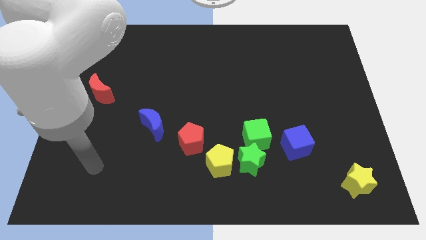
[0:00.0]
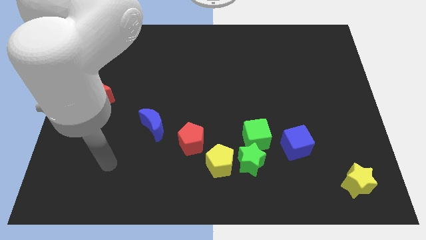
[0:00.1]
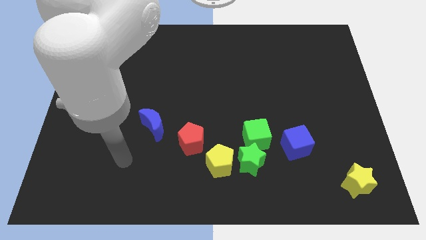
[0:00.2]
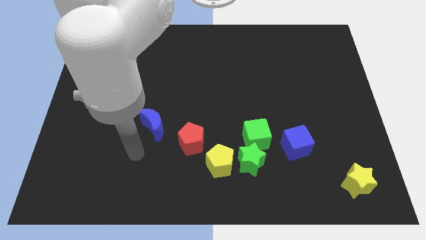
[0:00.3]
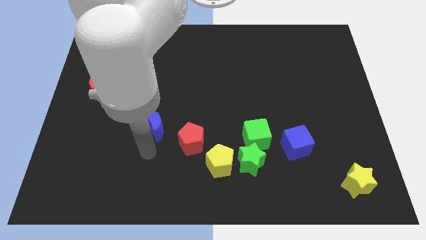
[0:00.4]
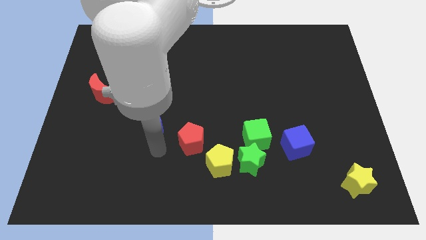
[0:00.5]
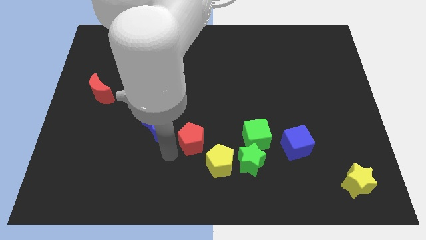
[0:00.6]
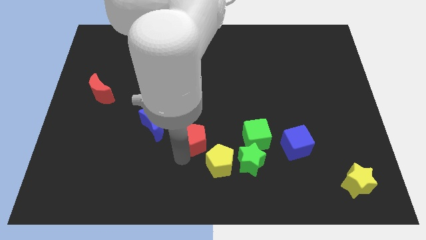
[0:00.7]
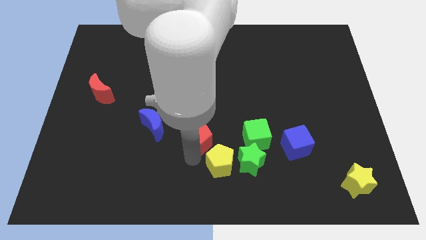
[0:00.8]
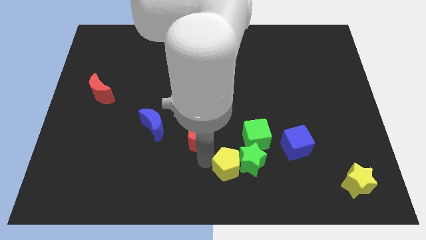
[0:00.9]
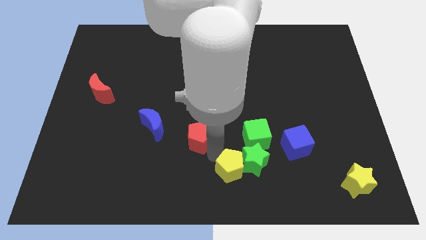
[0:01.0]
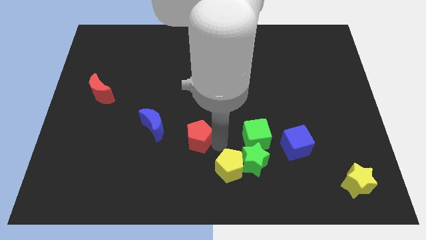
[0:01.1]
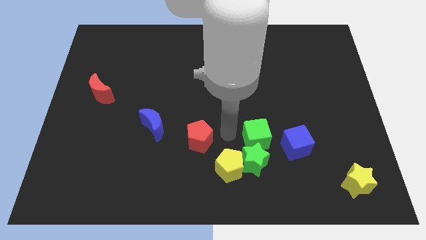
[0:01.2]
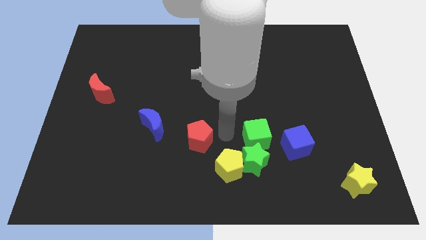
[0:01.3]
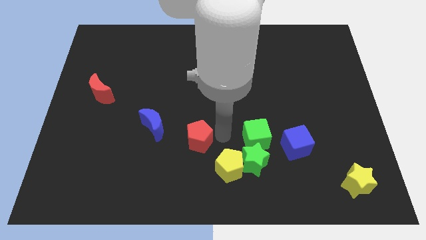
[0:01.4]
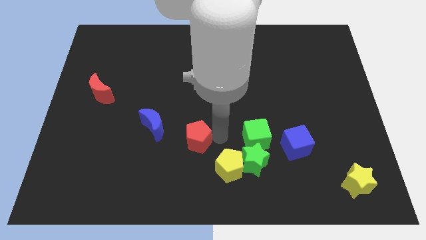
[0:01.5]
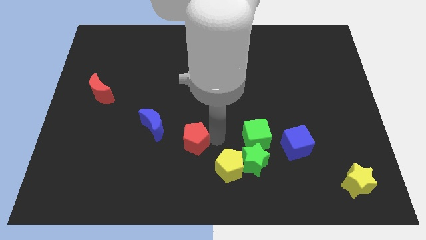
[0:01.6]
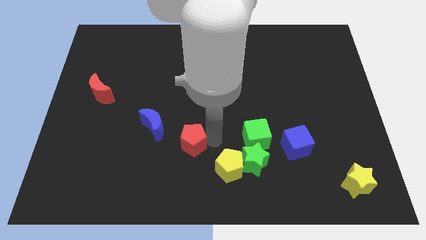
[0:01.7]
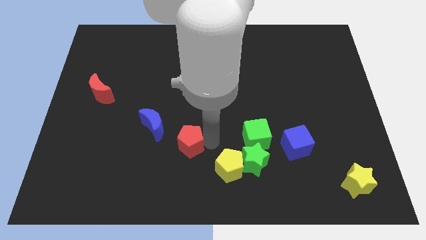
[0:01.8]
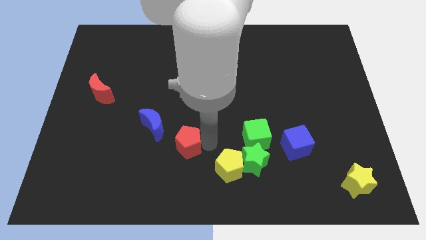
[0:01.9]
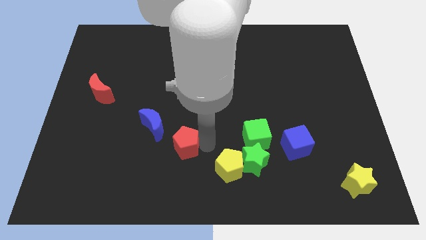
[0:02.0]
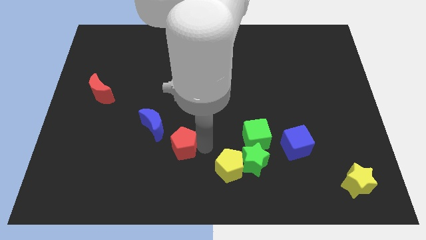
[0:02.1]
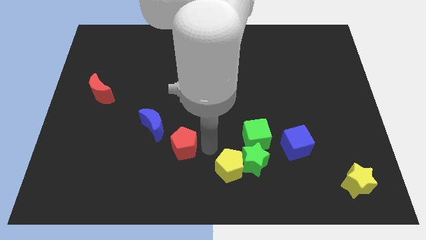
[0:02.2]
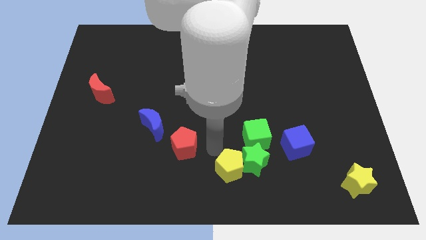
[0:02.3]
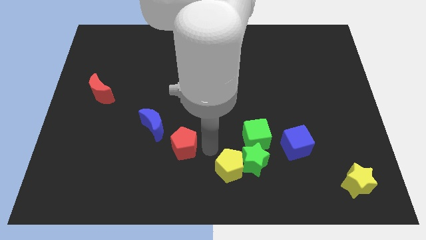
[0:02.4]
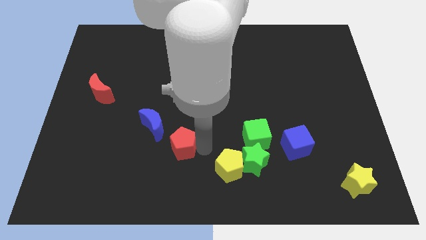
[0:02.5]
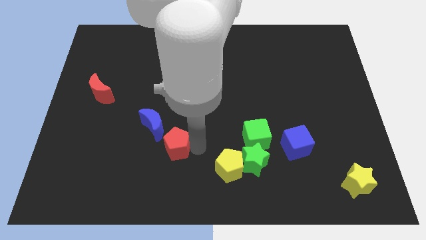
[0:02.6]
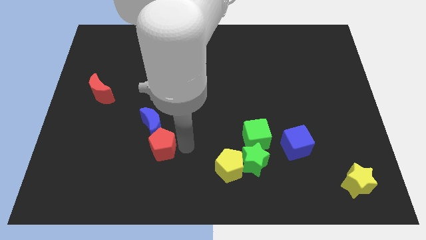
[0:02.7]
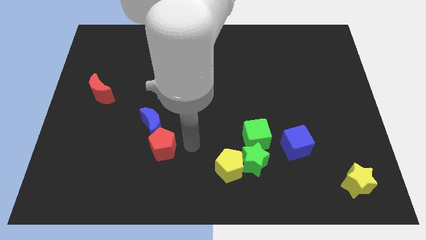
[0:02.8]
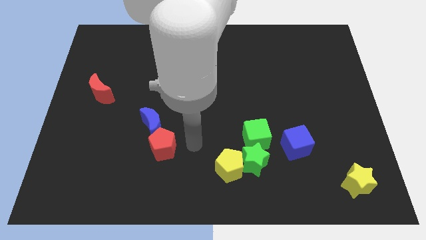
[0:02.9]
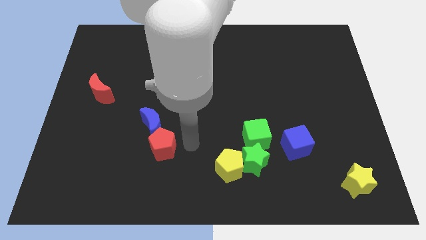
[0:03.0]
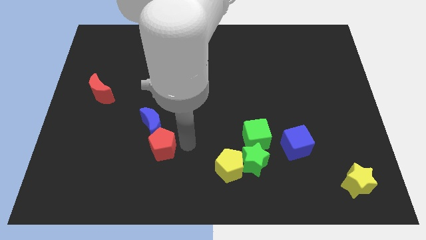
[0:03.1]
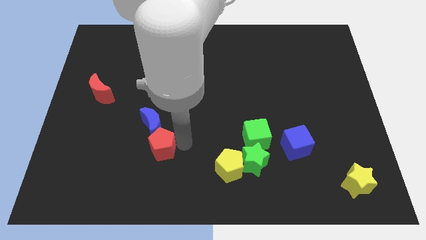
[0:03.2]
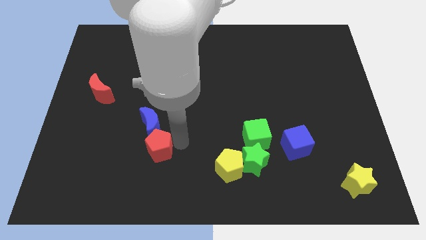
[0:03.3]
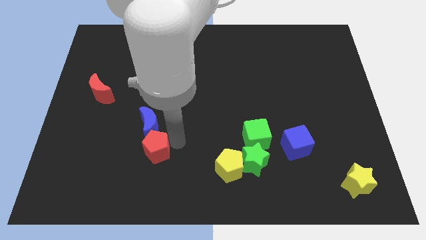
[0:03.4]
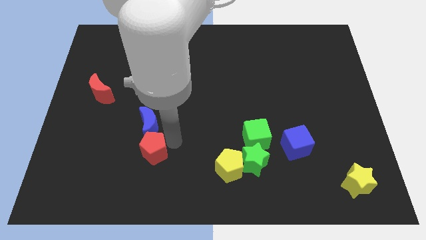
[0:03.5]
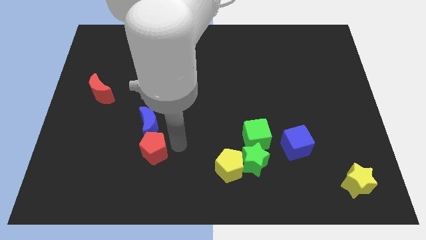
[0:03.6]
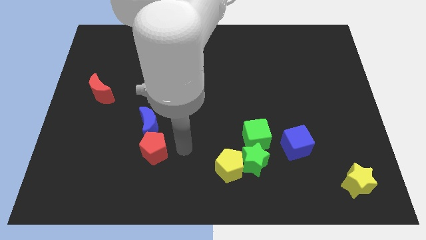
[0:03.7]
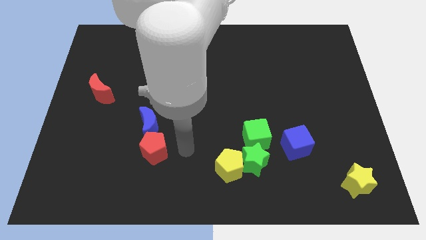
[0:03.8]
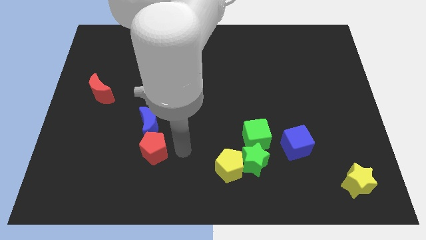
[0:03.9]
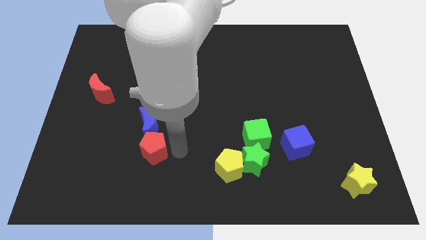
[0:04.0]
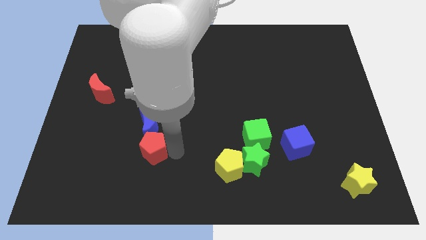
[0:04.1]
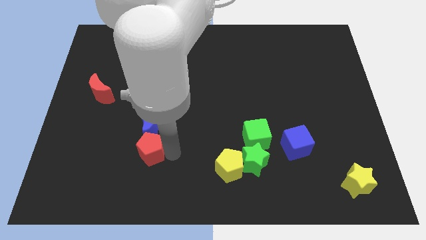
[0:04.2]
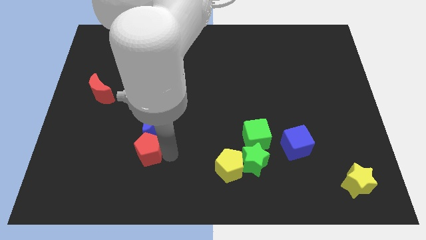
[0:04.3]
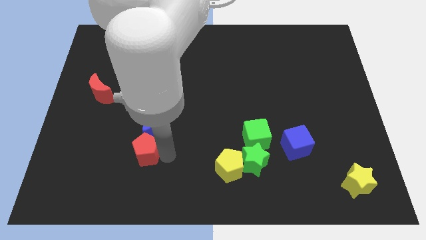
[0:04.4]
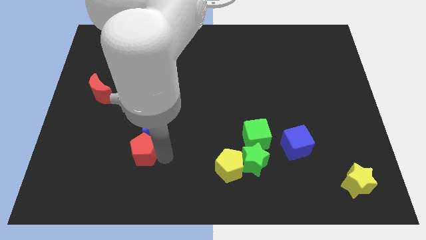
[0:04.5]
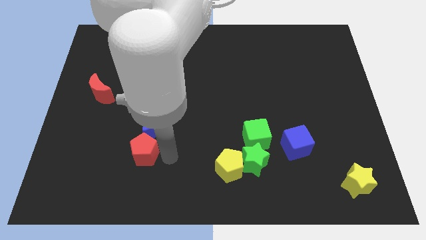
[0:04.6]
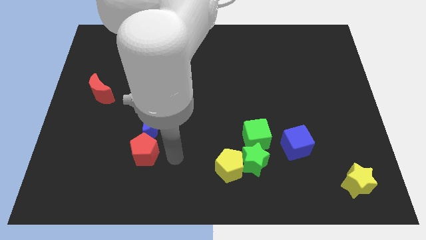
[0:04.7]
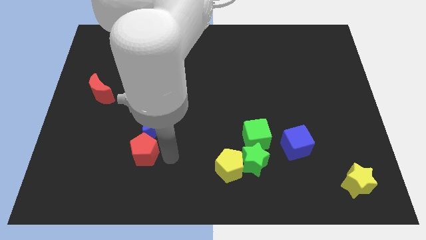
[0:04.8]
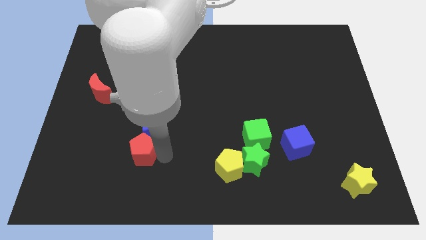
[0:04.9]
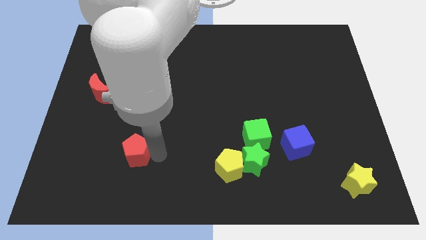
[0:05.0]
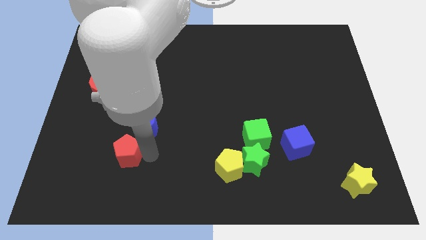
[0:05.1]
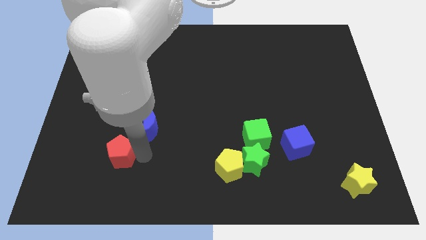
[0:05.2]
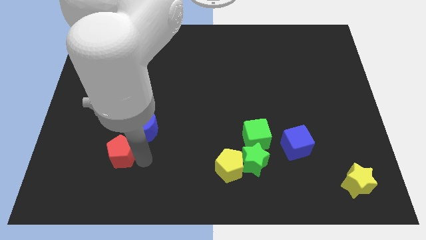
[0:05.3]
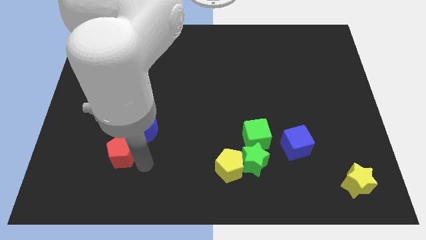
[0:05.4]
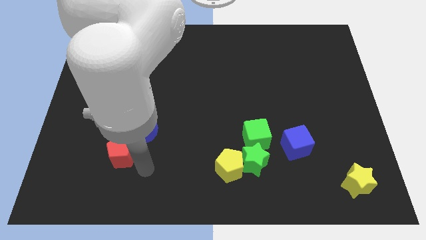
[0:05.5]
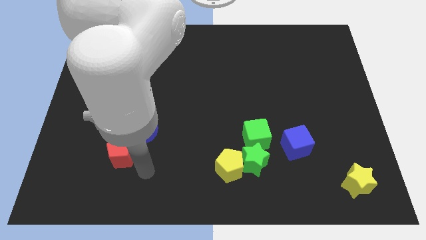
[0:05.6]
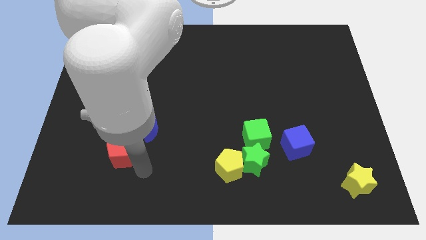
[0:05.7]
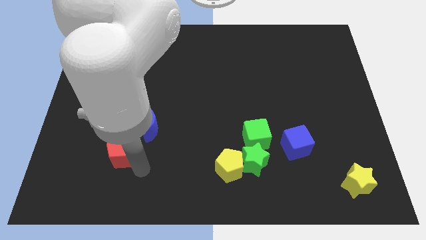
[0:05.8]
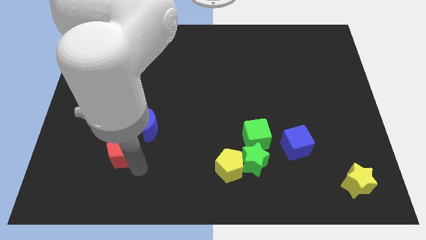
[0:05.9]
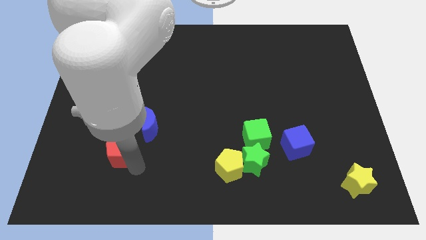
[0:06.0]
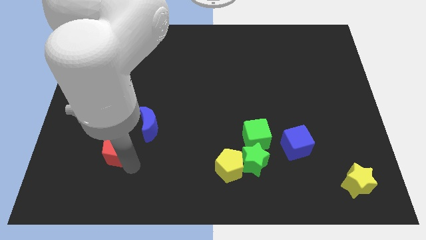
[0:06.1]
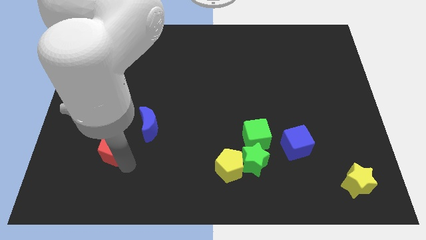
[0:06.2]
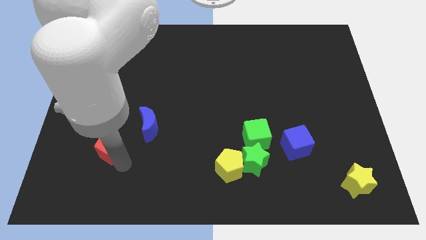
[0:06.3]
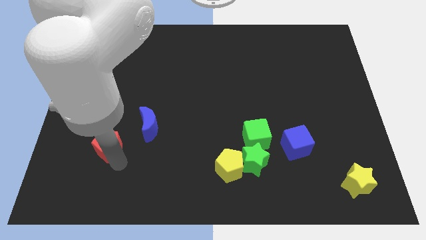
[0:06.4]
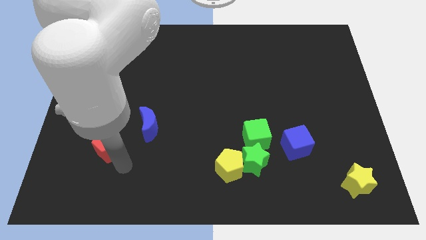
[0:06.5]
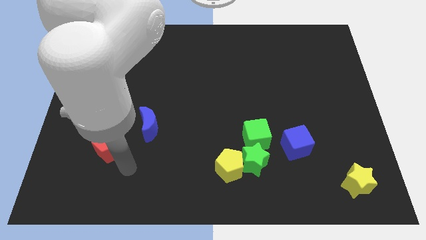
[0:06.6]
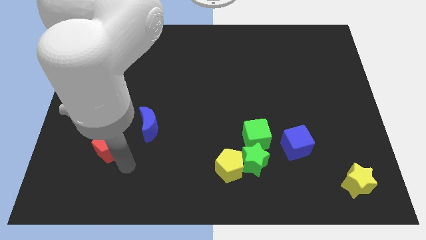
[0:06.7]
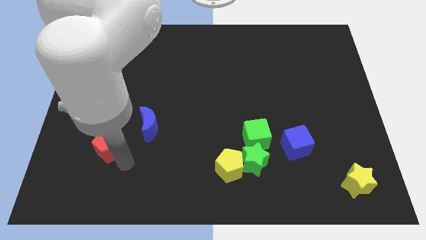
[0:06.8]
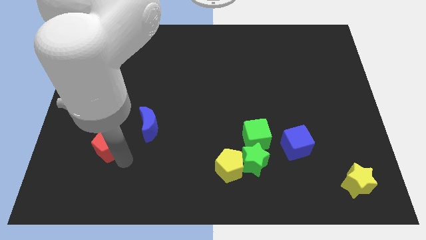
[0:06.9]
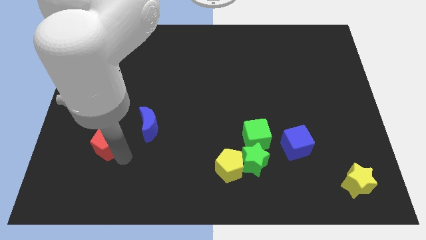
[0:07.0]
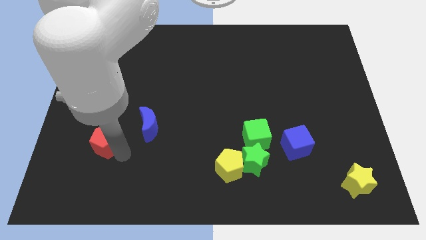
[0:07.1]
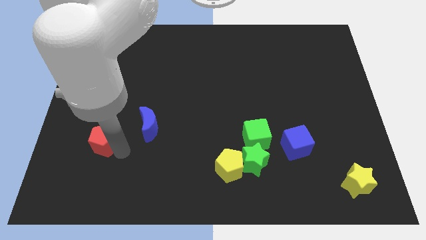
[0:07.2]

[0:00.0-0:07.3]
move the red pentagon to the bottom of the red moon
